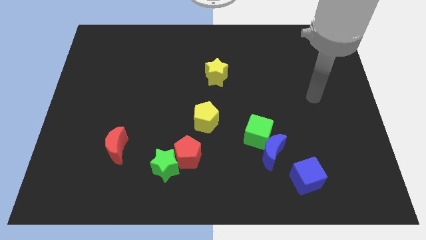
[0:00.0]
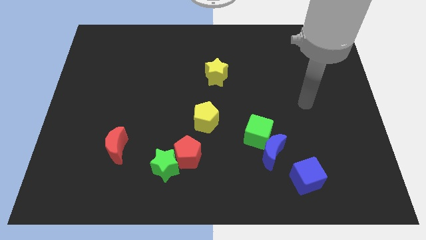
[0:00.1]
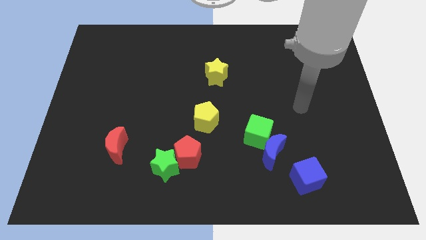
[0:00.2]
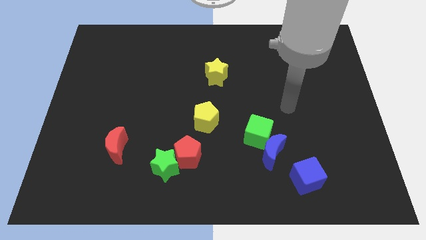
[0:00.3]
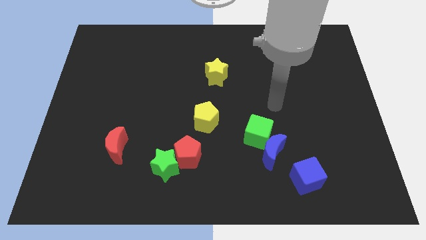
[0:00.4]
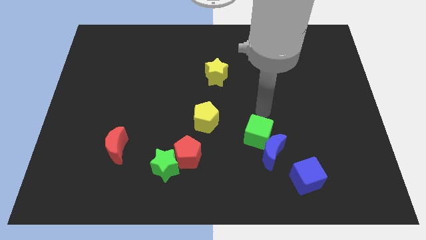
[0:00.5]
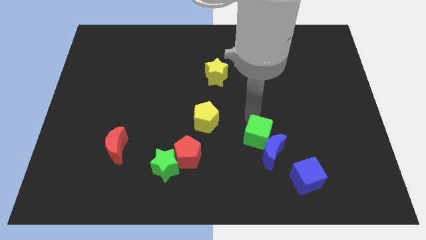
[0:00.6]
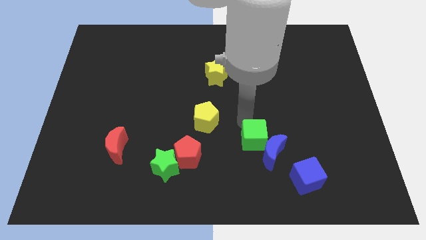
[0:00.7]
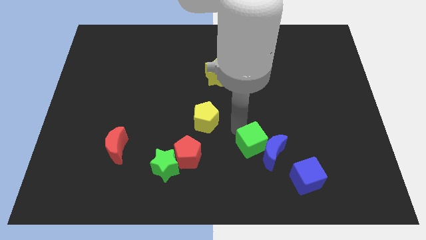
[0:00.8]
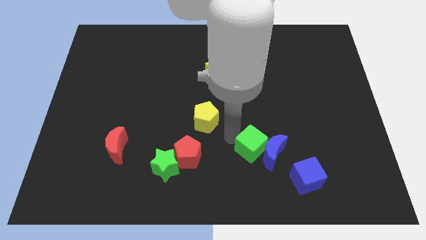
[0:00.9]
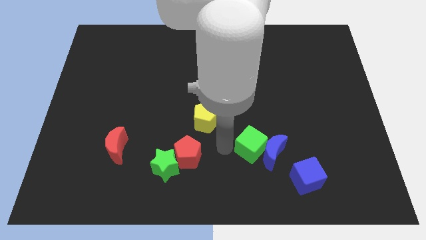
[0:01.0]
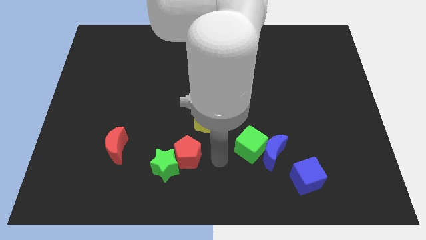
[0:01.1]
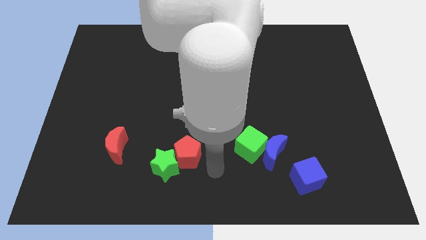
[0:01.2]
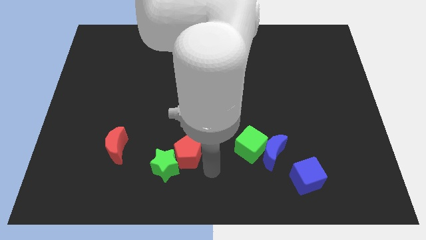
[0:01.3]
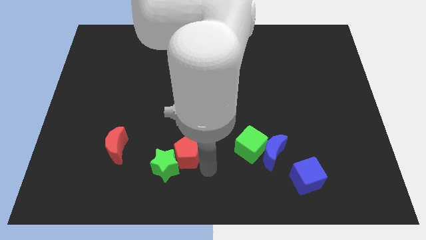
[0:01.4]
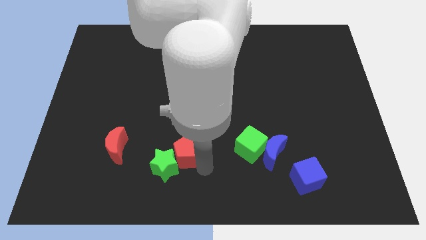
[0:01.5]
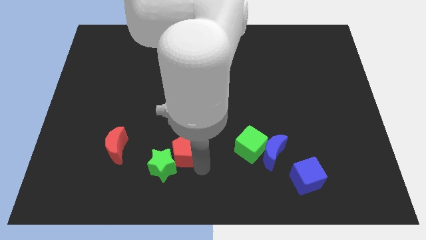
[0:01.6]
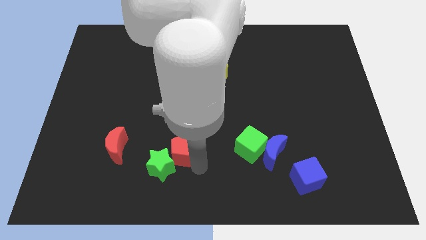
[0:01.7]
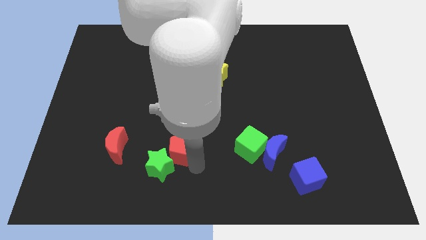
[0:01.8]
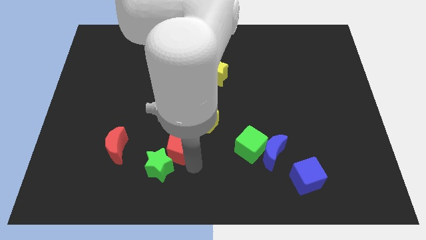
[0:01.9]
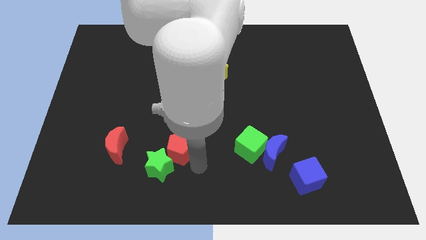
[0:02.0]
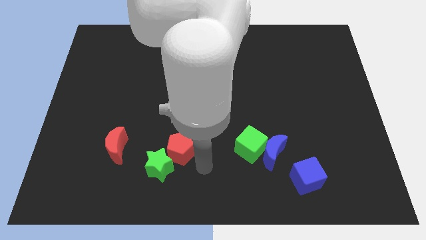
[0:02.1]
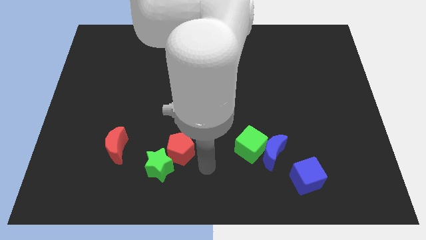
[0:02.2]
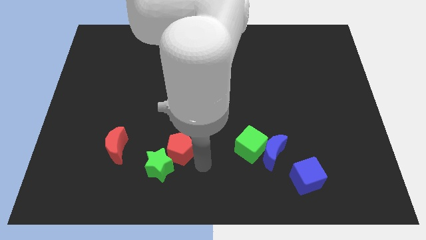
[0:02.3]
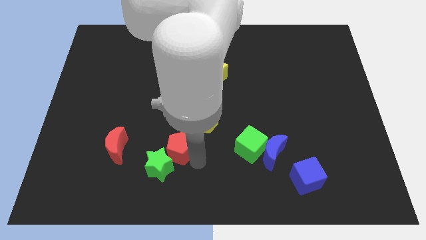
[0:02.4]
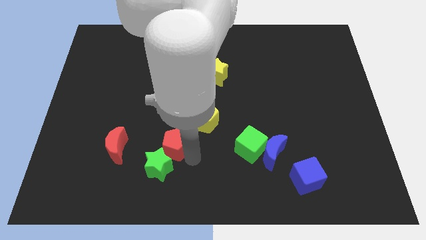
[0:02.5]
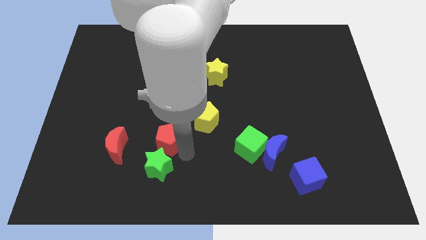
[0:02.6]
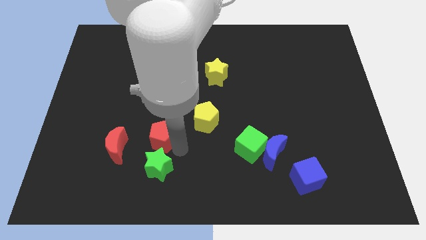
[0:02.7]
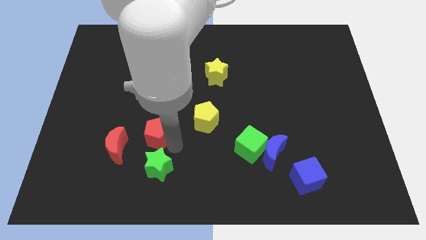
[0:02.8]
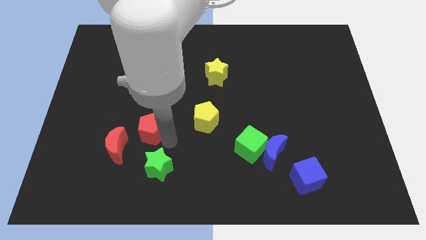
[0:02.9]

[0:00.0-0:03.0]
slightly push the red pentagon left

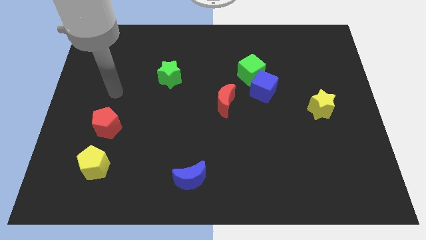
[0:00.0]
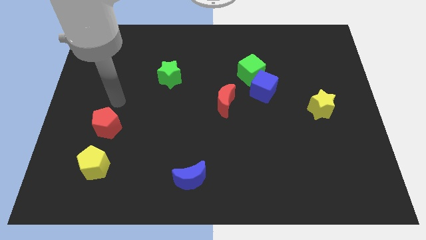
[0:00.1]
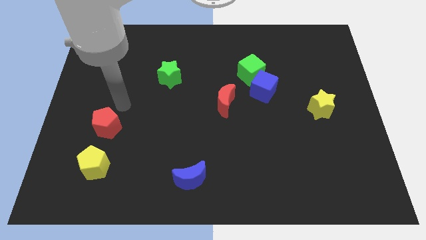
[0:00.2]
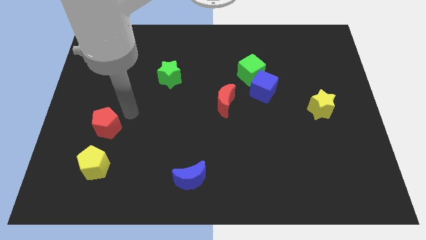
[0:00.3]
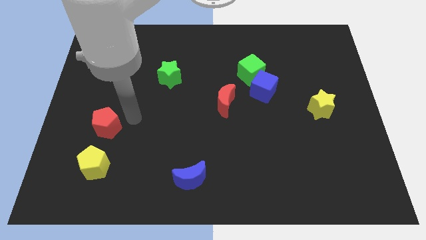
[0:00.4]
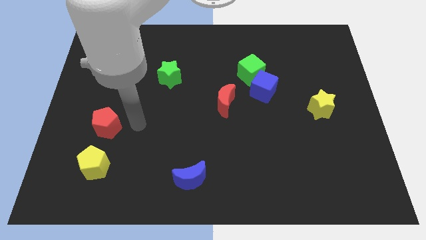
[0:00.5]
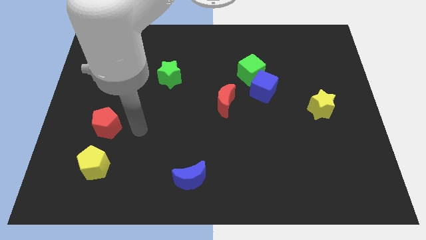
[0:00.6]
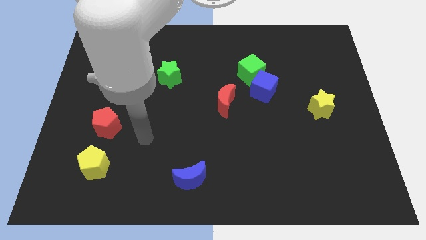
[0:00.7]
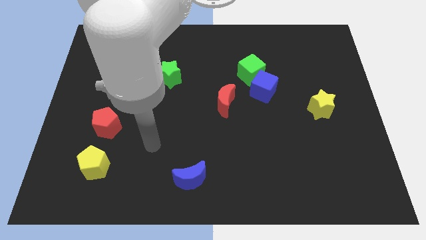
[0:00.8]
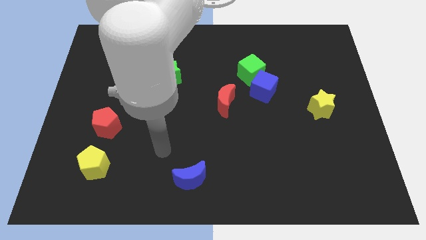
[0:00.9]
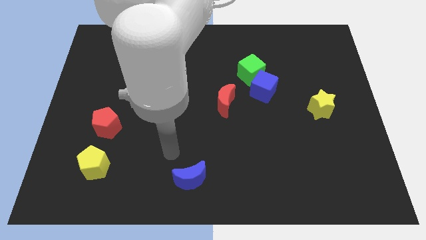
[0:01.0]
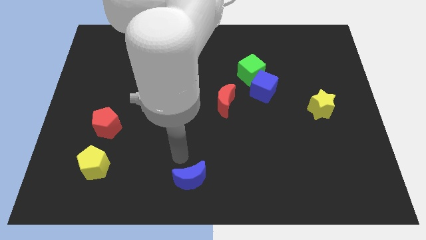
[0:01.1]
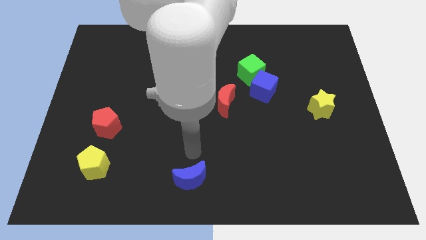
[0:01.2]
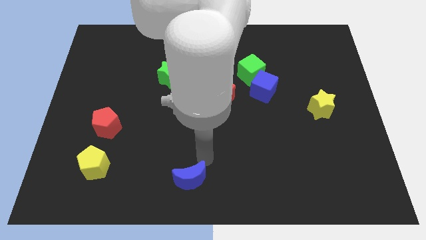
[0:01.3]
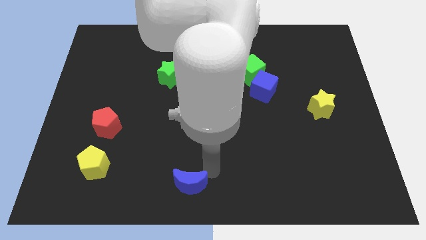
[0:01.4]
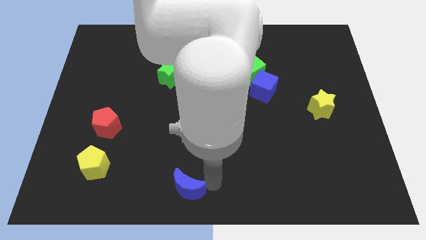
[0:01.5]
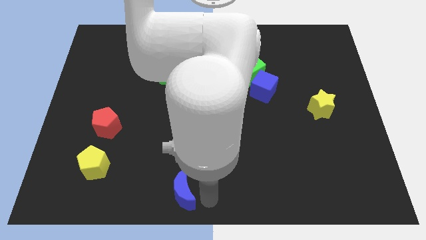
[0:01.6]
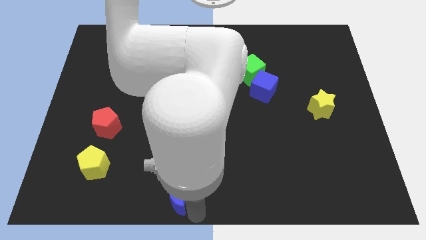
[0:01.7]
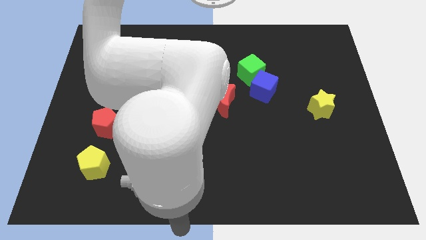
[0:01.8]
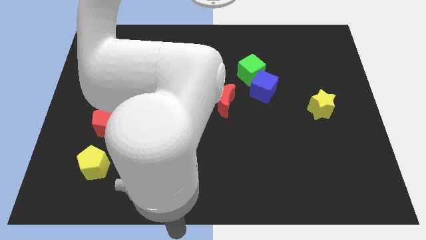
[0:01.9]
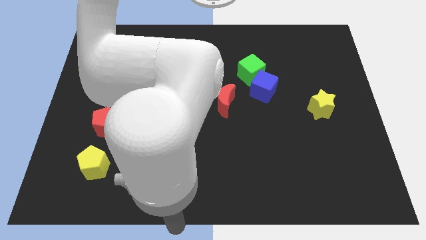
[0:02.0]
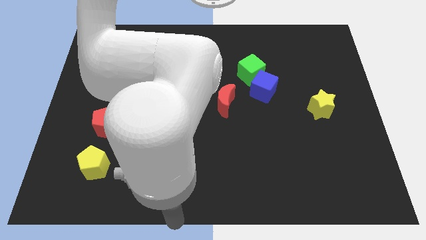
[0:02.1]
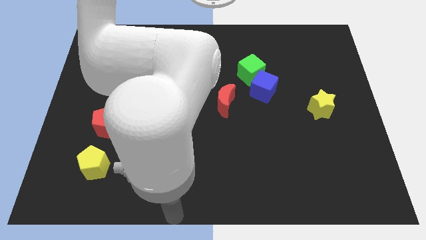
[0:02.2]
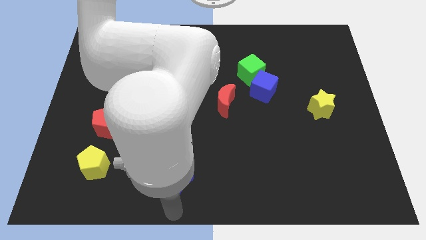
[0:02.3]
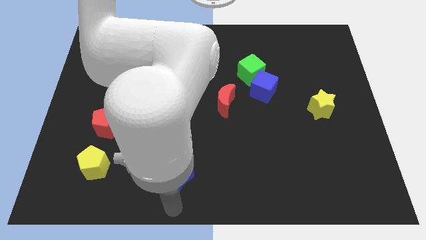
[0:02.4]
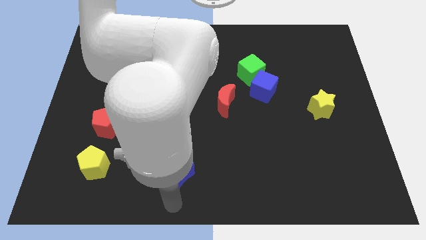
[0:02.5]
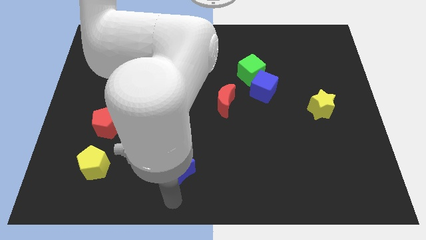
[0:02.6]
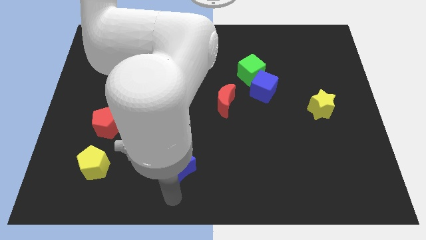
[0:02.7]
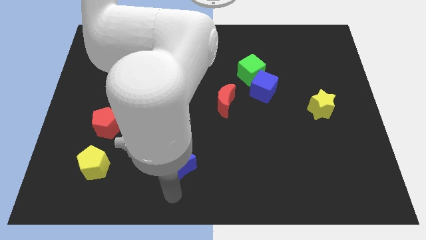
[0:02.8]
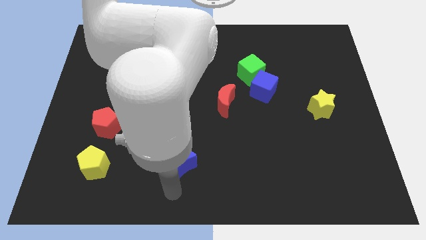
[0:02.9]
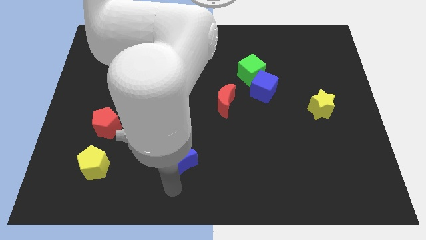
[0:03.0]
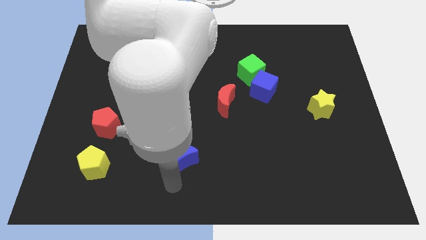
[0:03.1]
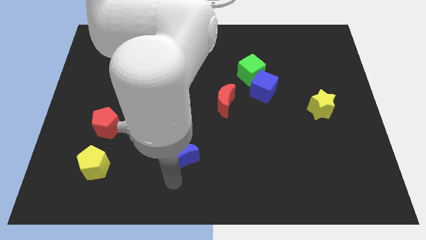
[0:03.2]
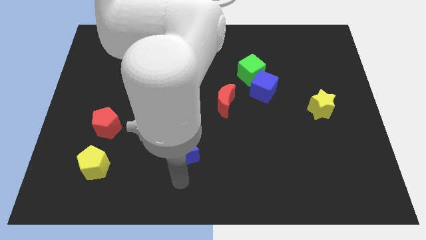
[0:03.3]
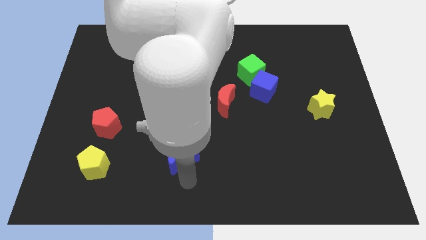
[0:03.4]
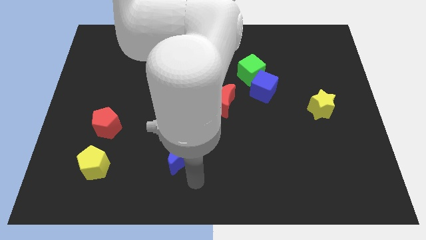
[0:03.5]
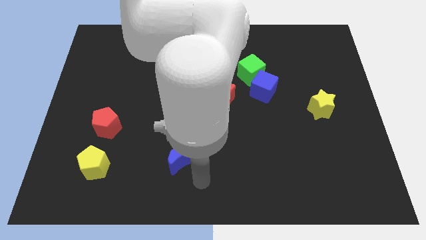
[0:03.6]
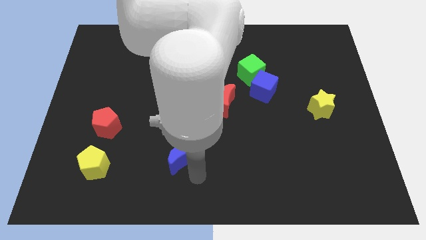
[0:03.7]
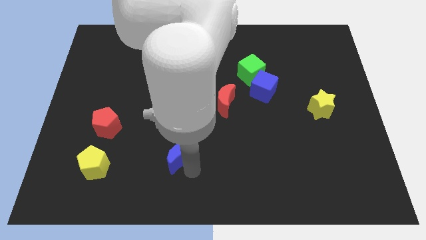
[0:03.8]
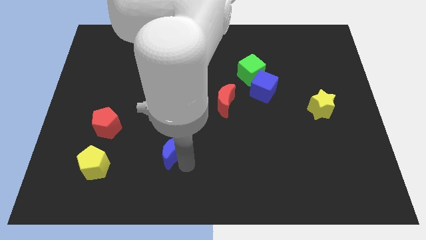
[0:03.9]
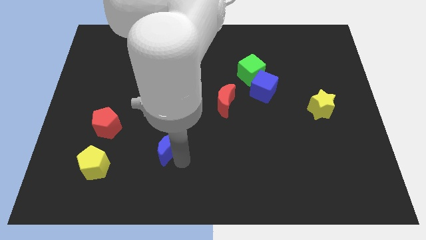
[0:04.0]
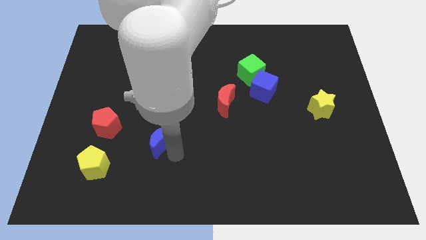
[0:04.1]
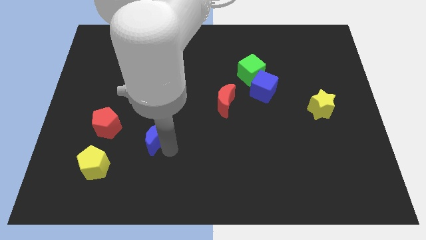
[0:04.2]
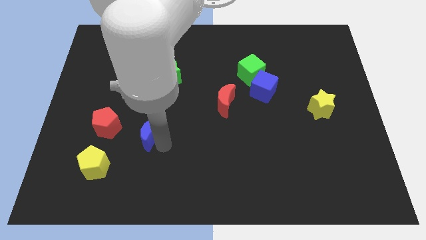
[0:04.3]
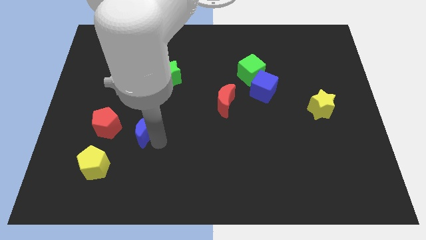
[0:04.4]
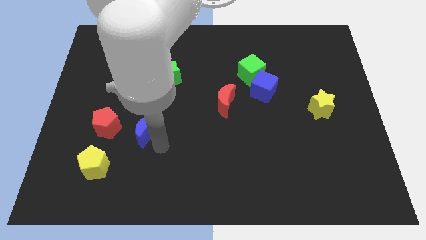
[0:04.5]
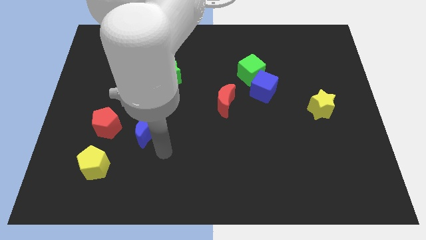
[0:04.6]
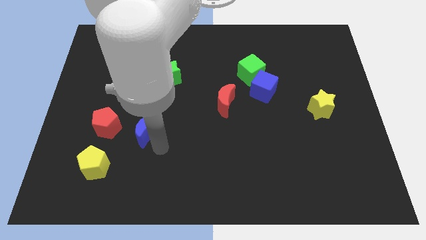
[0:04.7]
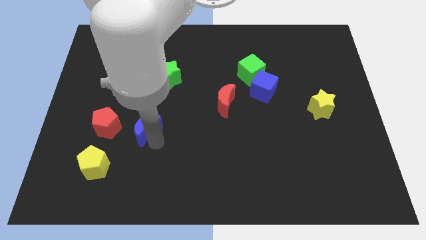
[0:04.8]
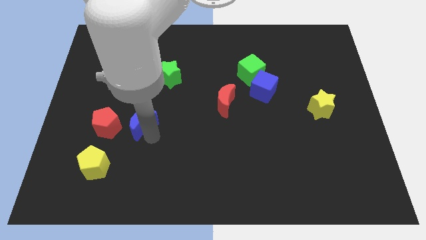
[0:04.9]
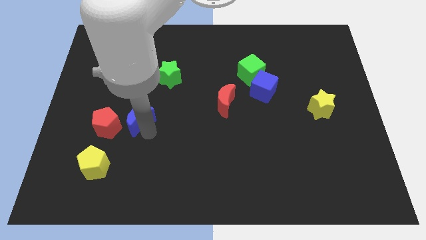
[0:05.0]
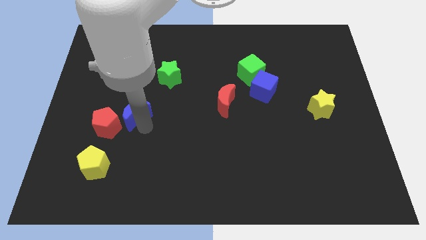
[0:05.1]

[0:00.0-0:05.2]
slide the blue moon up and left diagonally

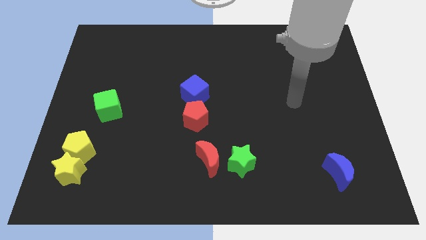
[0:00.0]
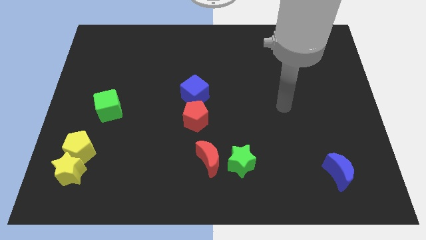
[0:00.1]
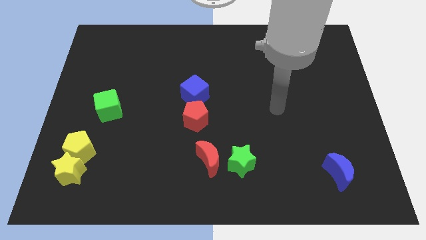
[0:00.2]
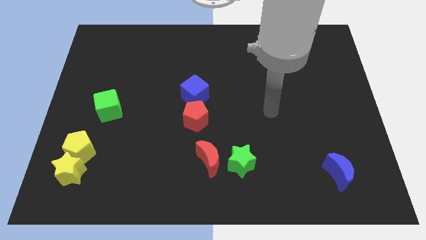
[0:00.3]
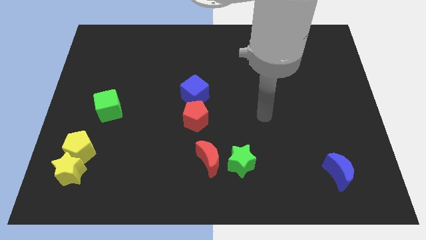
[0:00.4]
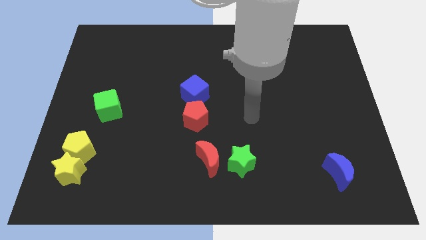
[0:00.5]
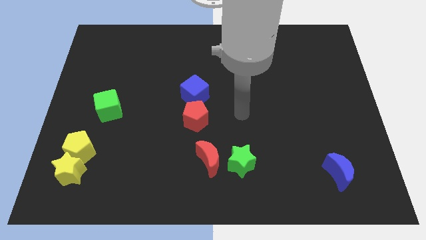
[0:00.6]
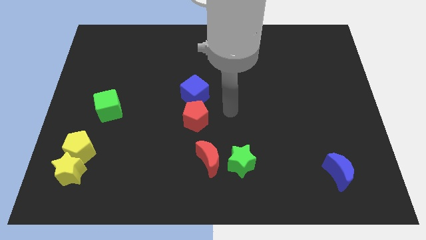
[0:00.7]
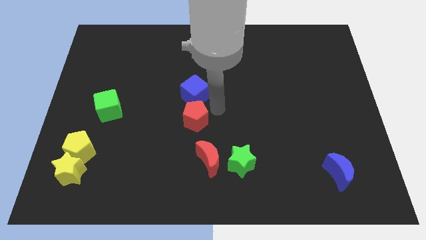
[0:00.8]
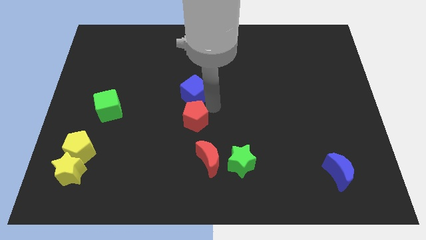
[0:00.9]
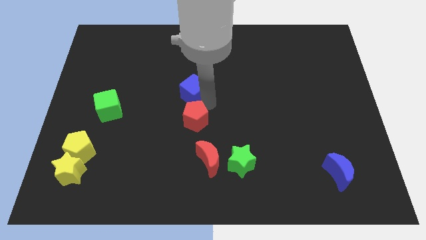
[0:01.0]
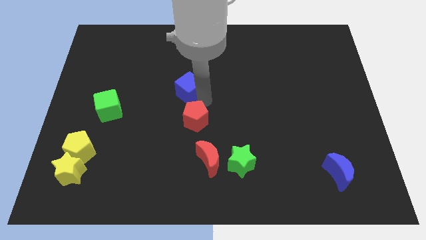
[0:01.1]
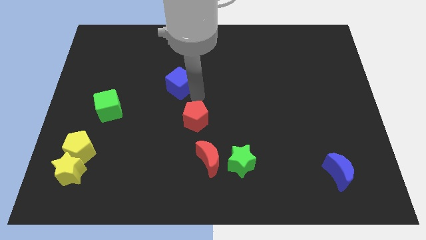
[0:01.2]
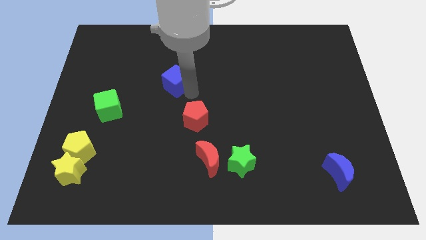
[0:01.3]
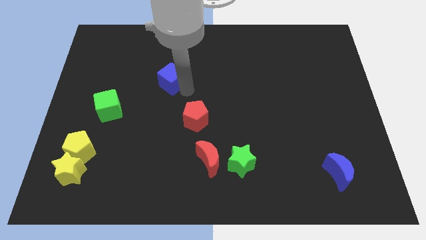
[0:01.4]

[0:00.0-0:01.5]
slide the blue cube a bit up and then left
